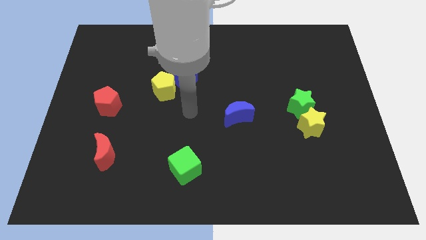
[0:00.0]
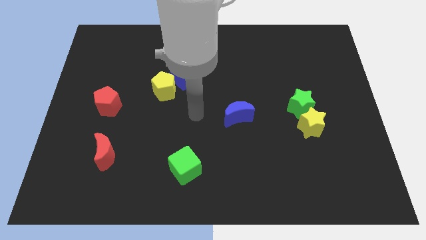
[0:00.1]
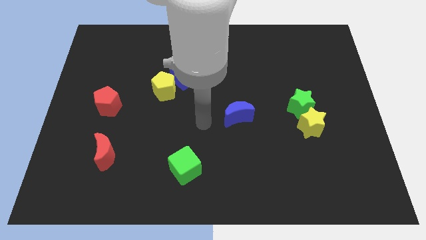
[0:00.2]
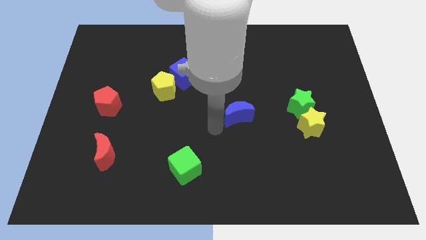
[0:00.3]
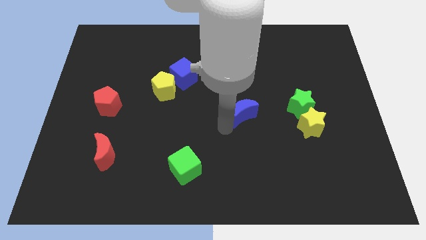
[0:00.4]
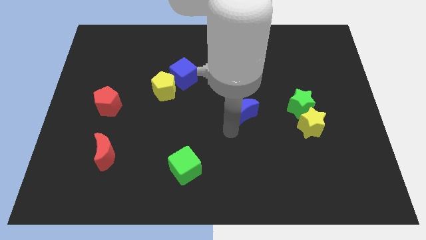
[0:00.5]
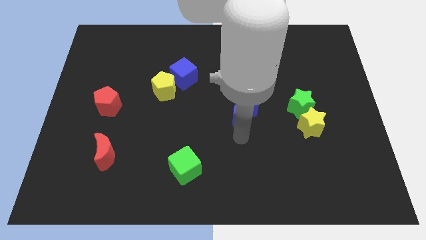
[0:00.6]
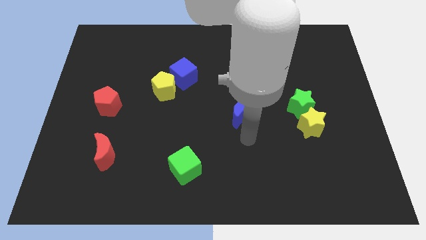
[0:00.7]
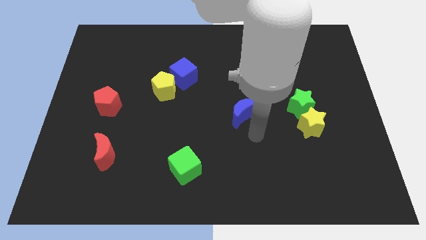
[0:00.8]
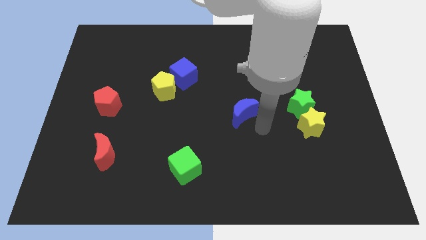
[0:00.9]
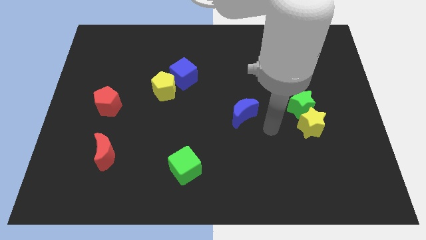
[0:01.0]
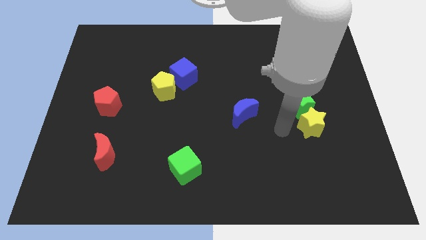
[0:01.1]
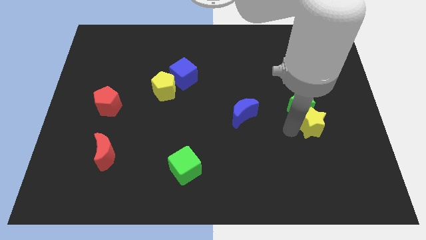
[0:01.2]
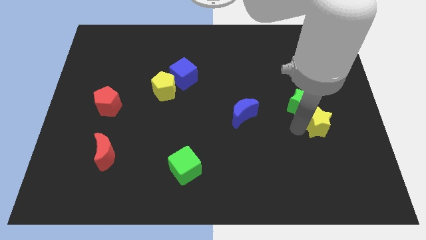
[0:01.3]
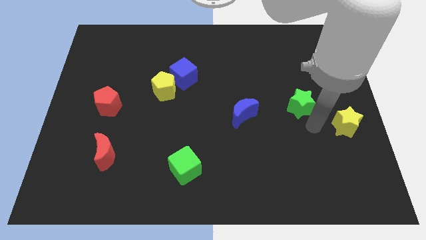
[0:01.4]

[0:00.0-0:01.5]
separate the green star from the yellow star

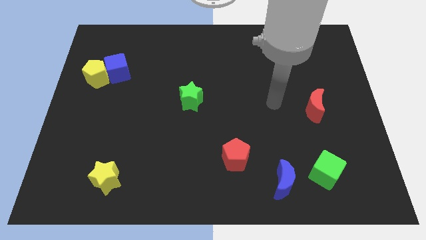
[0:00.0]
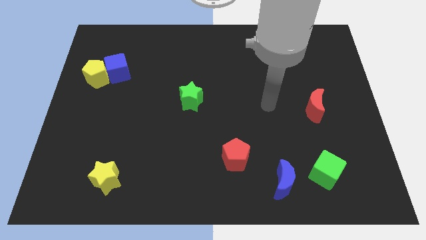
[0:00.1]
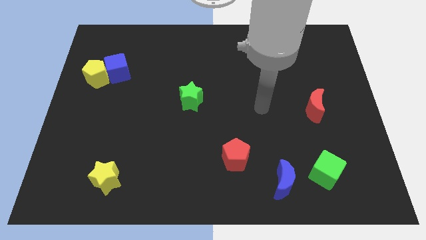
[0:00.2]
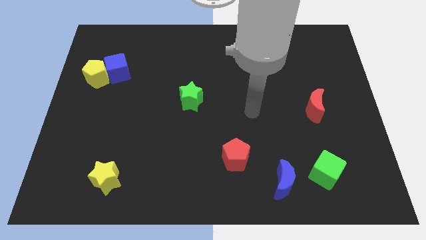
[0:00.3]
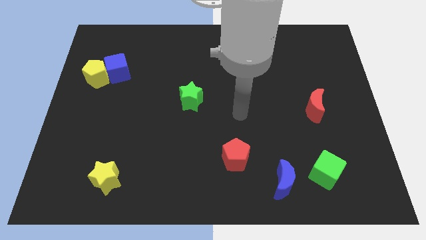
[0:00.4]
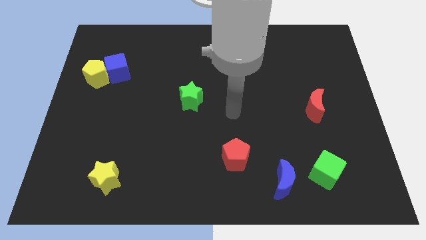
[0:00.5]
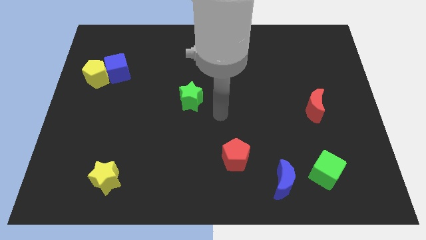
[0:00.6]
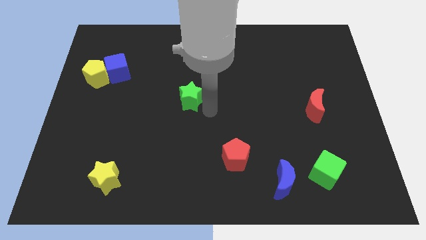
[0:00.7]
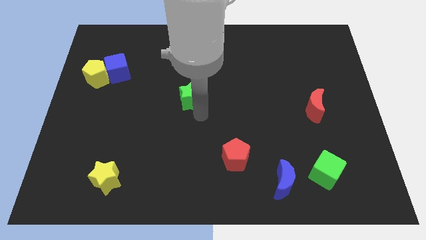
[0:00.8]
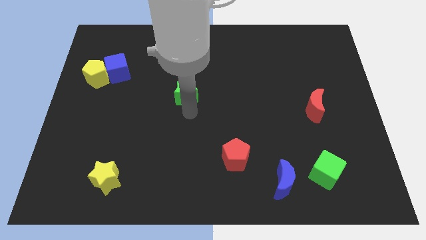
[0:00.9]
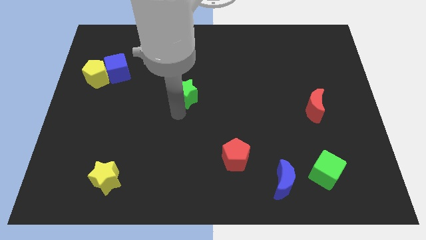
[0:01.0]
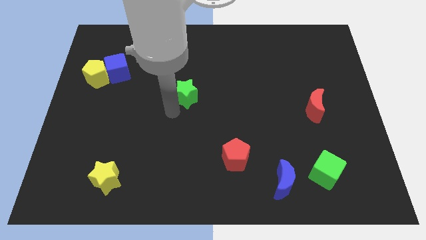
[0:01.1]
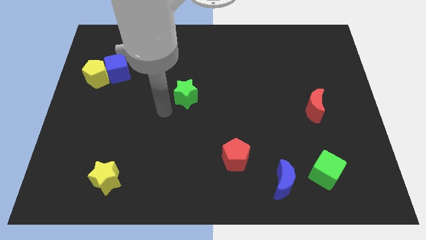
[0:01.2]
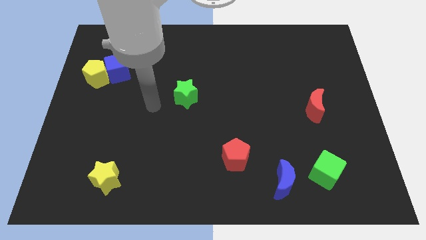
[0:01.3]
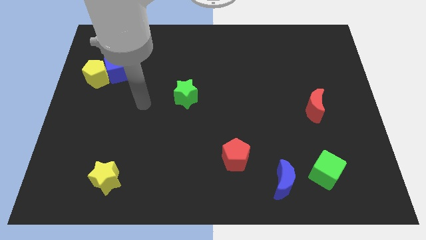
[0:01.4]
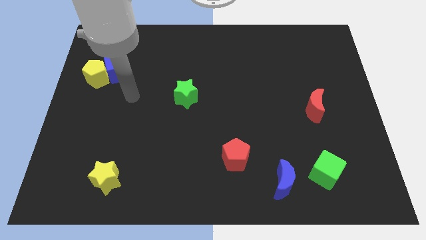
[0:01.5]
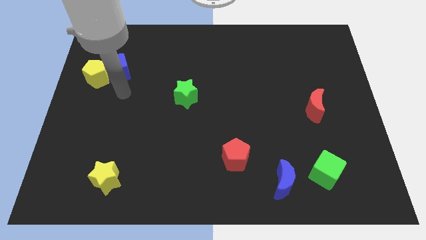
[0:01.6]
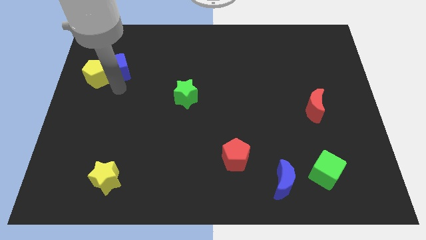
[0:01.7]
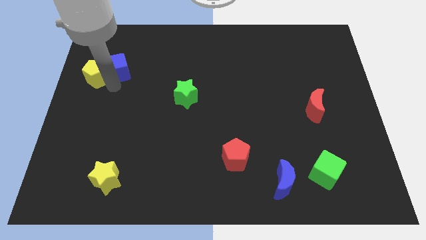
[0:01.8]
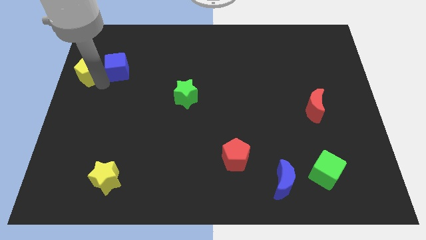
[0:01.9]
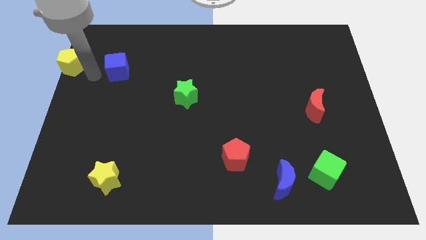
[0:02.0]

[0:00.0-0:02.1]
move the blue cube away from the yellow pentagon

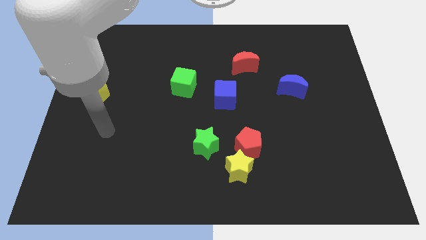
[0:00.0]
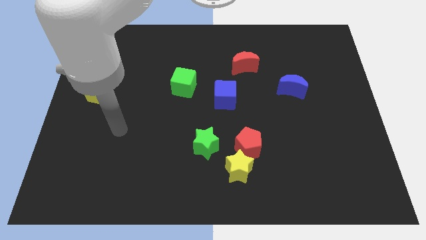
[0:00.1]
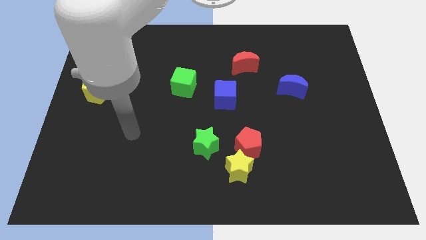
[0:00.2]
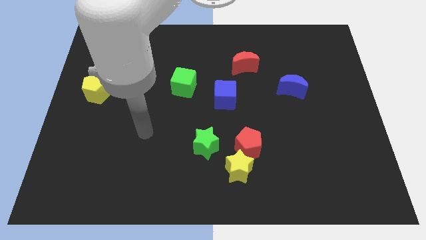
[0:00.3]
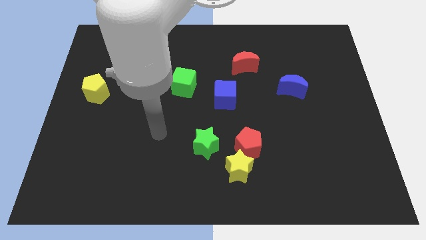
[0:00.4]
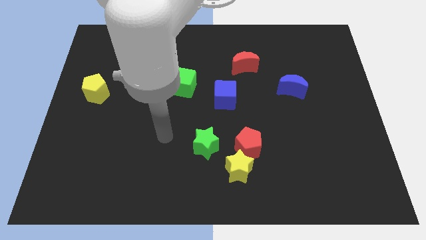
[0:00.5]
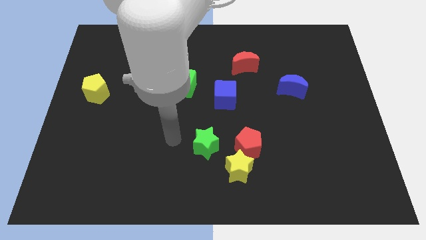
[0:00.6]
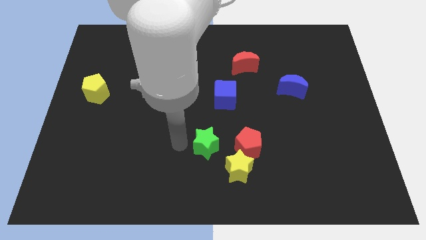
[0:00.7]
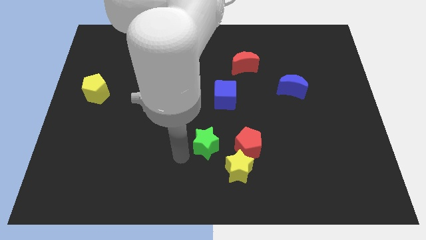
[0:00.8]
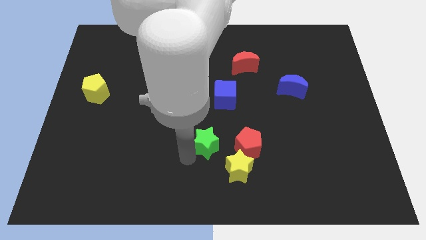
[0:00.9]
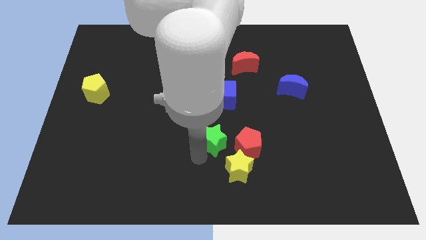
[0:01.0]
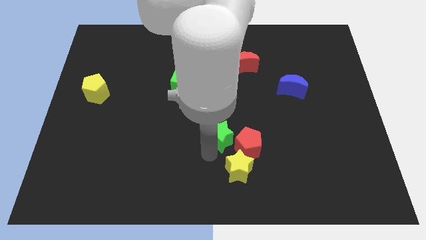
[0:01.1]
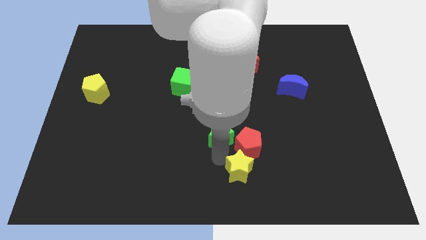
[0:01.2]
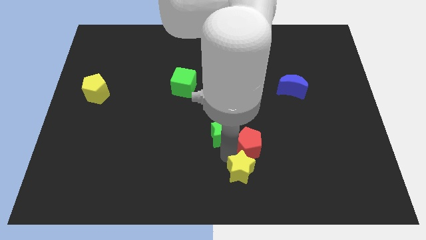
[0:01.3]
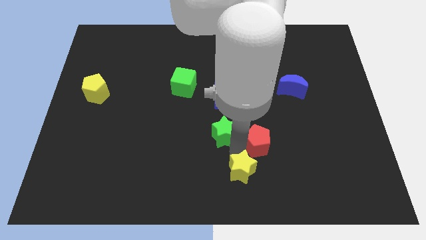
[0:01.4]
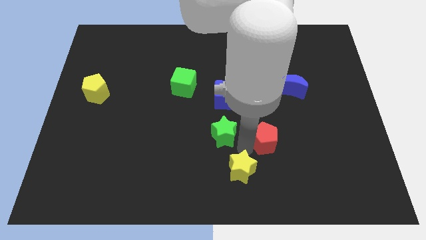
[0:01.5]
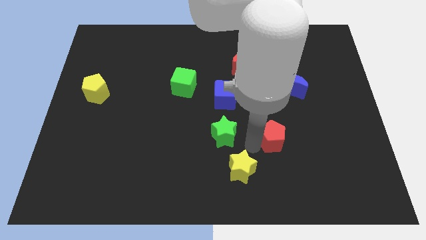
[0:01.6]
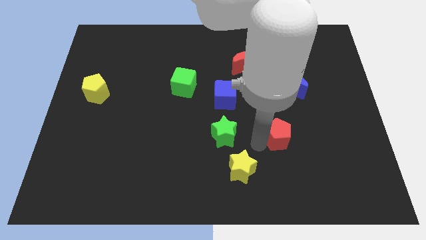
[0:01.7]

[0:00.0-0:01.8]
pull the red pentagon apart from the yellow star and green star

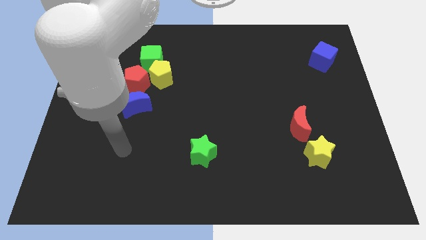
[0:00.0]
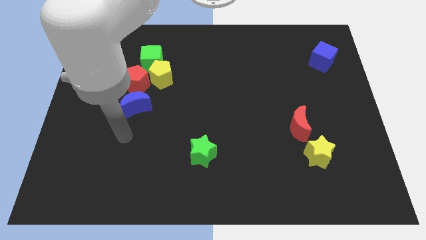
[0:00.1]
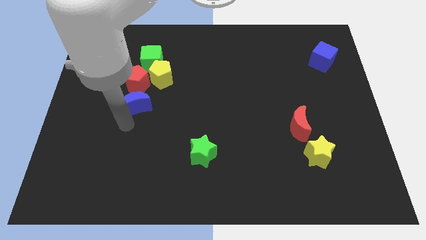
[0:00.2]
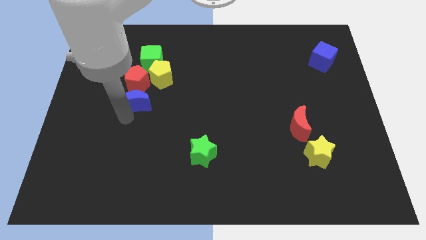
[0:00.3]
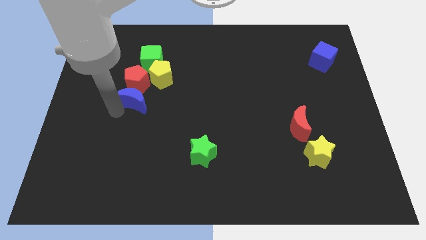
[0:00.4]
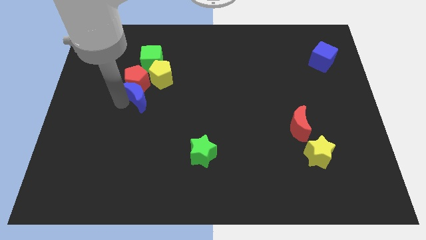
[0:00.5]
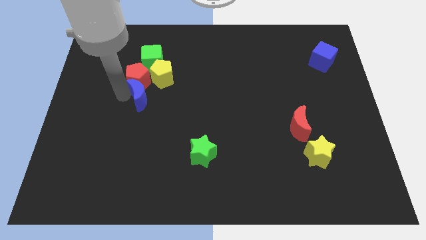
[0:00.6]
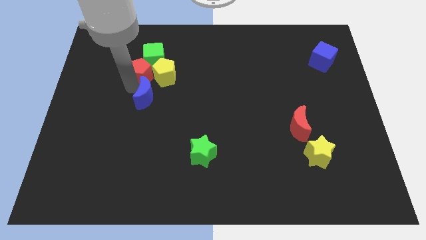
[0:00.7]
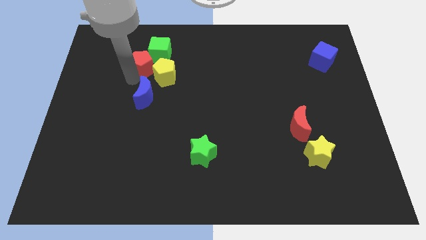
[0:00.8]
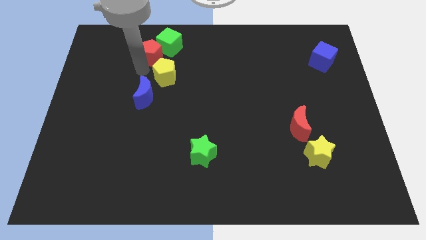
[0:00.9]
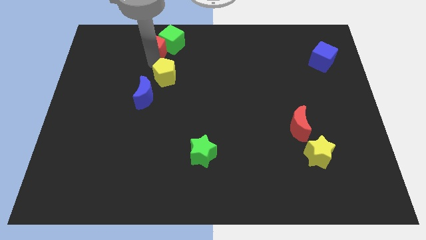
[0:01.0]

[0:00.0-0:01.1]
separate the yellow pentagon from the green cube and red pentagon

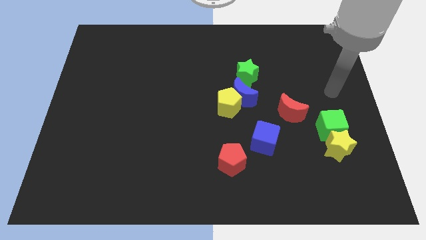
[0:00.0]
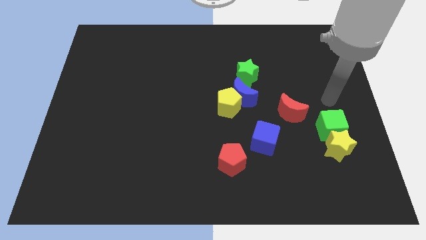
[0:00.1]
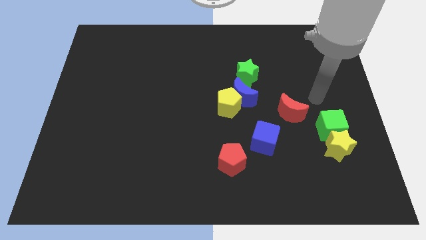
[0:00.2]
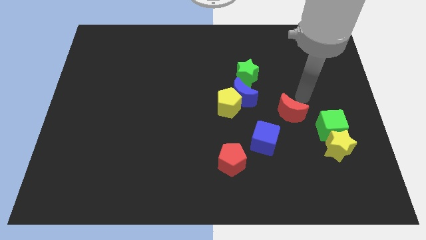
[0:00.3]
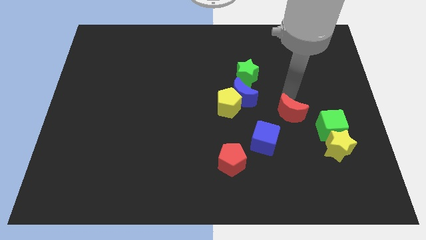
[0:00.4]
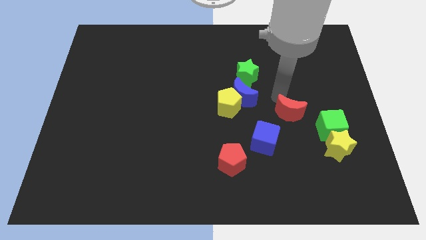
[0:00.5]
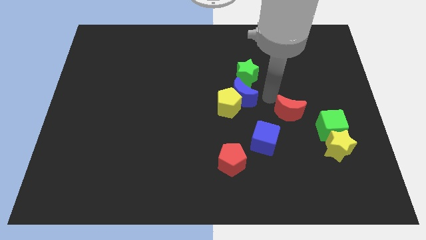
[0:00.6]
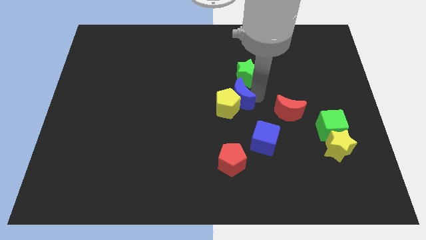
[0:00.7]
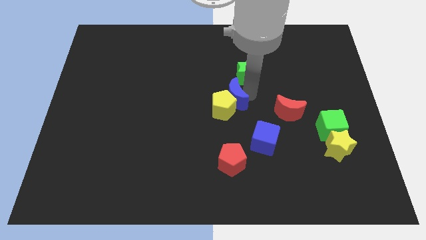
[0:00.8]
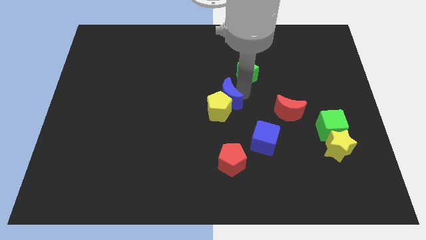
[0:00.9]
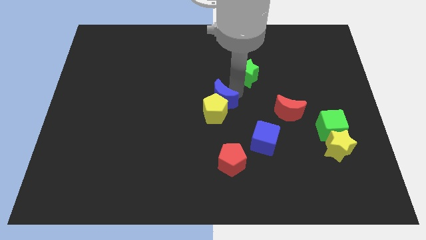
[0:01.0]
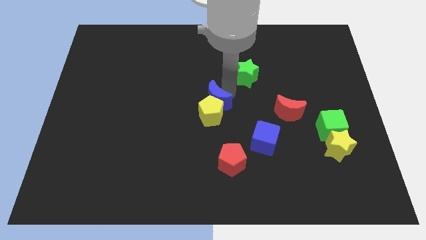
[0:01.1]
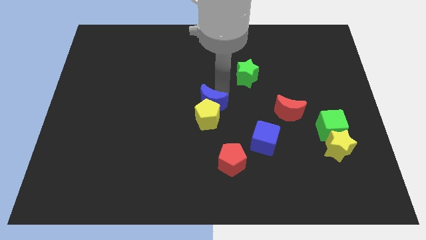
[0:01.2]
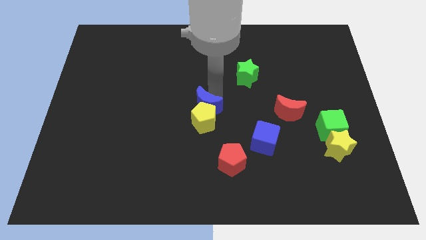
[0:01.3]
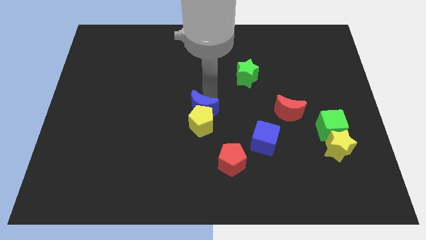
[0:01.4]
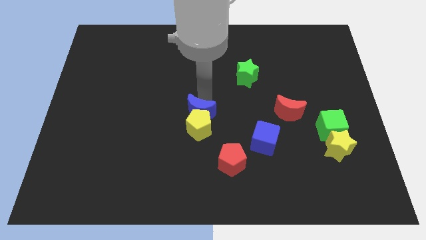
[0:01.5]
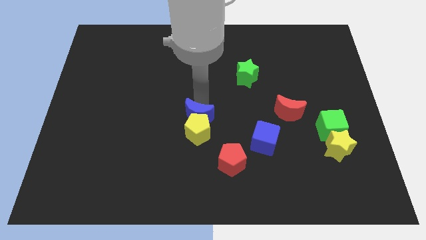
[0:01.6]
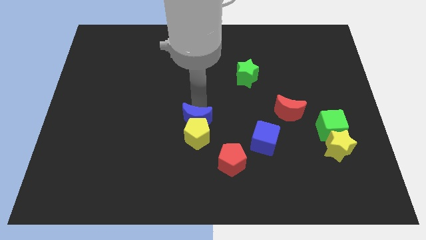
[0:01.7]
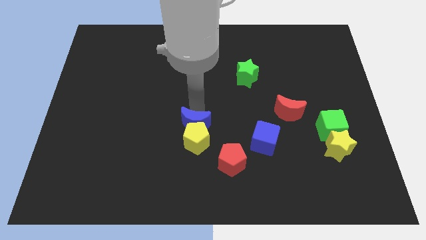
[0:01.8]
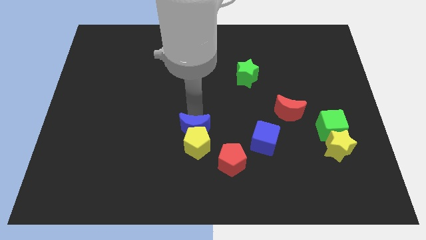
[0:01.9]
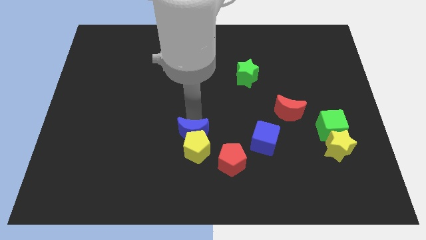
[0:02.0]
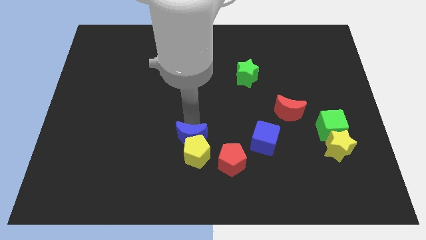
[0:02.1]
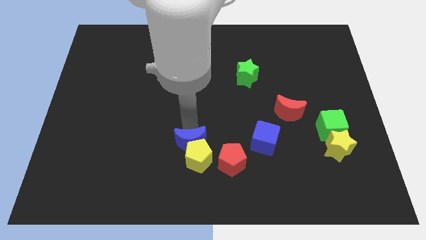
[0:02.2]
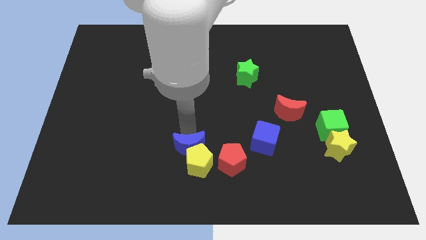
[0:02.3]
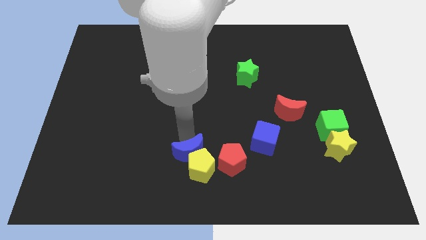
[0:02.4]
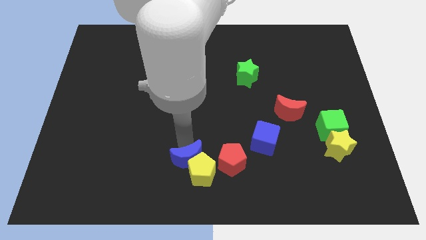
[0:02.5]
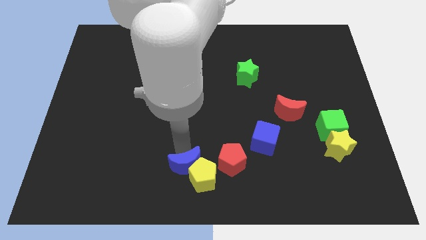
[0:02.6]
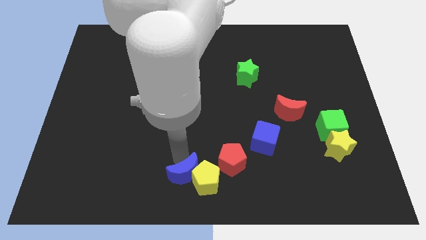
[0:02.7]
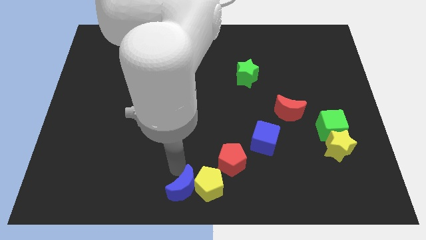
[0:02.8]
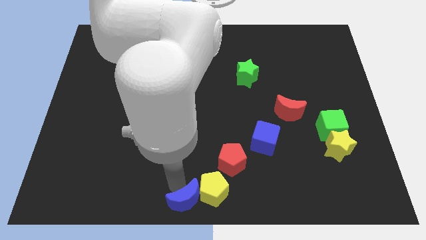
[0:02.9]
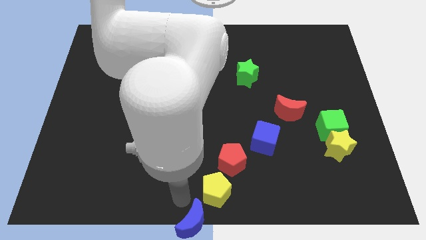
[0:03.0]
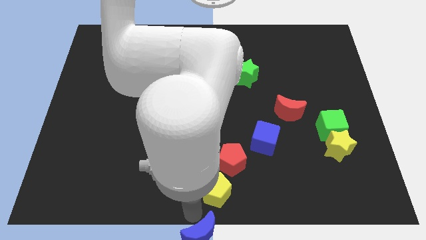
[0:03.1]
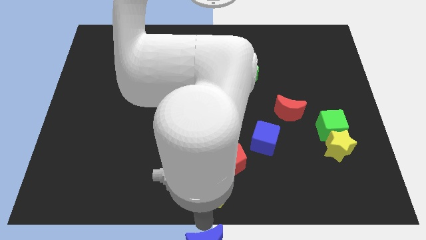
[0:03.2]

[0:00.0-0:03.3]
move the yellow pentagon away from the blue moon
